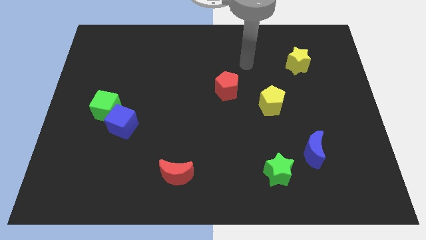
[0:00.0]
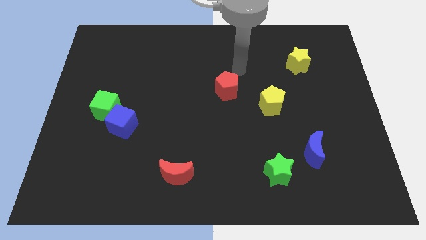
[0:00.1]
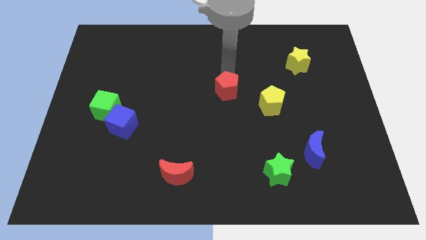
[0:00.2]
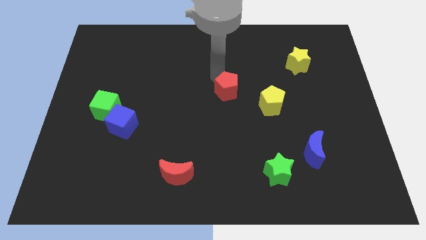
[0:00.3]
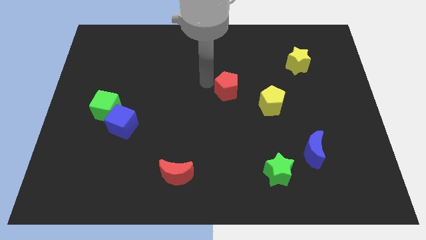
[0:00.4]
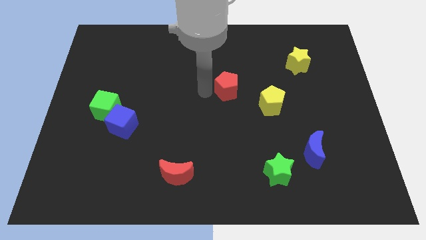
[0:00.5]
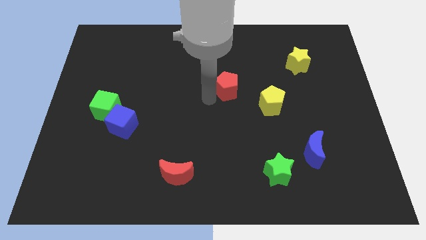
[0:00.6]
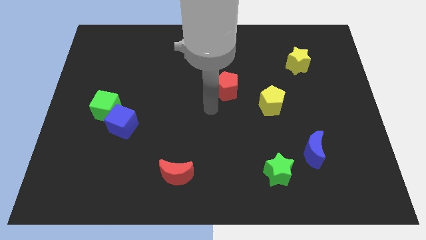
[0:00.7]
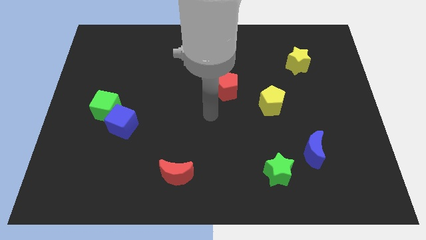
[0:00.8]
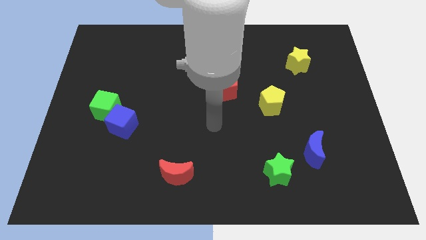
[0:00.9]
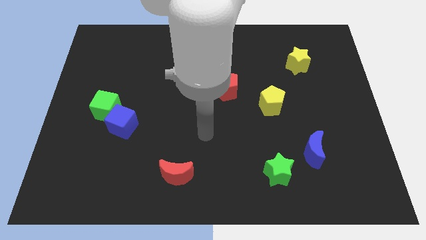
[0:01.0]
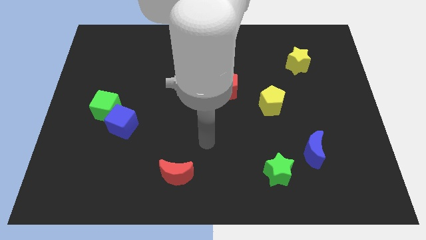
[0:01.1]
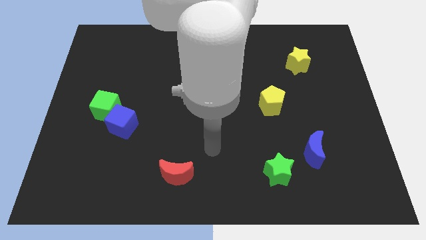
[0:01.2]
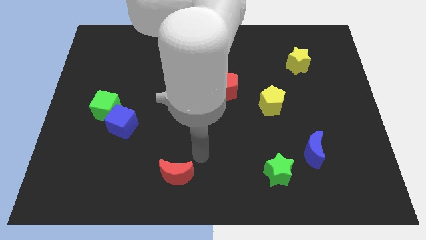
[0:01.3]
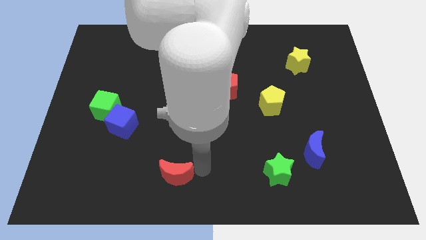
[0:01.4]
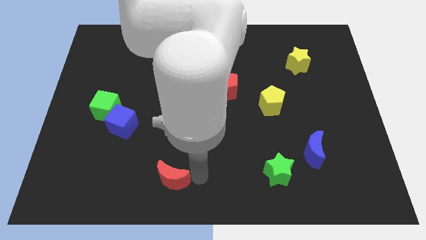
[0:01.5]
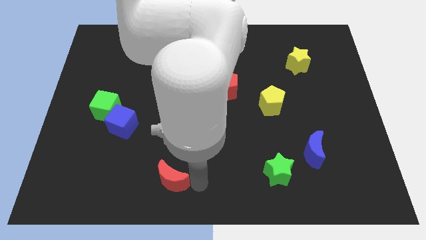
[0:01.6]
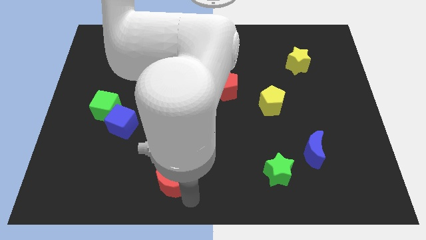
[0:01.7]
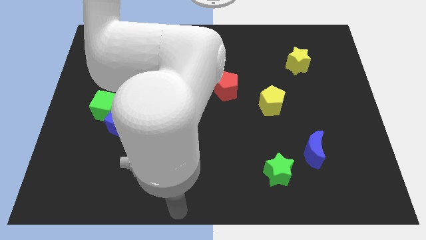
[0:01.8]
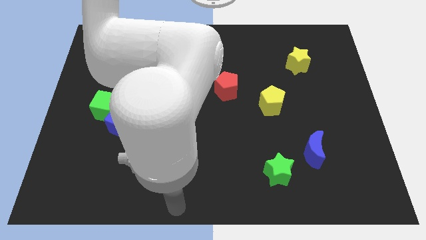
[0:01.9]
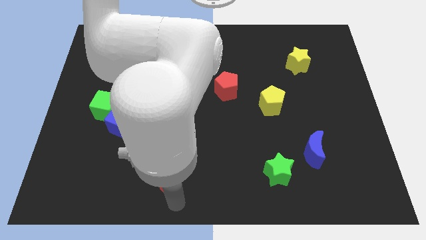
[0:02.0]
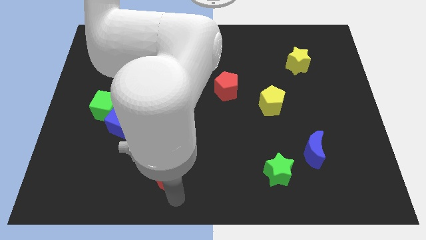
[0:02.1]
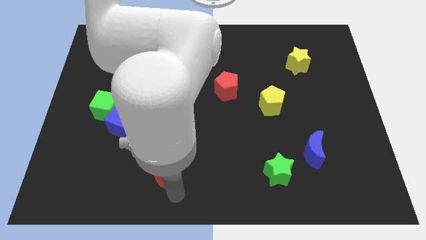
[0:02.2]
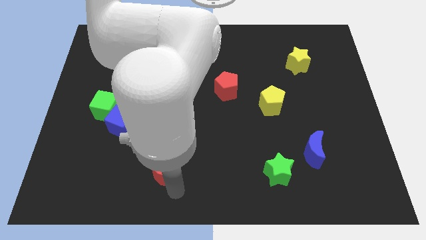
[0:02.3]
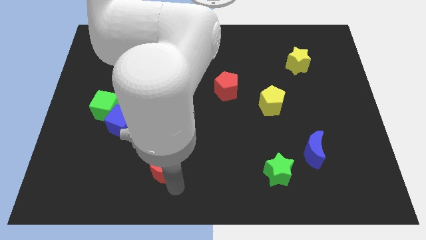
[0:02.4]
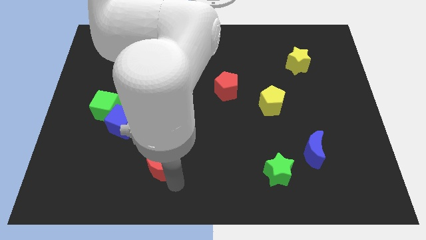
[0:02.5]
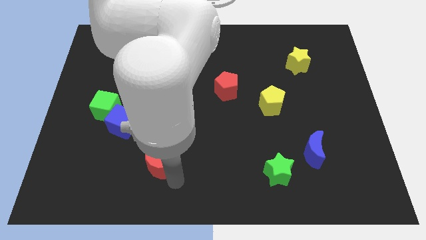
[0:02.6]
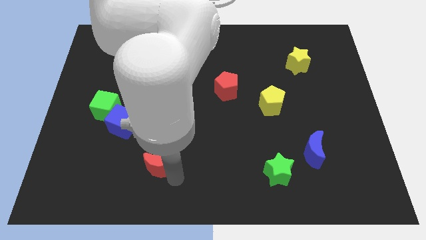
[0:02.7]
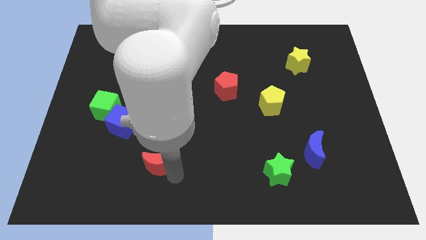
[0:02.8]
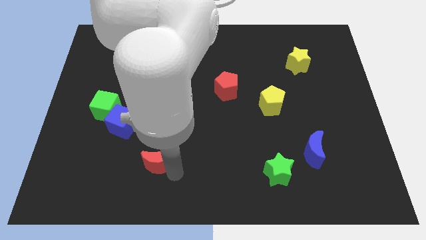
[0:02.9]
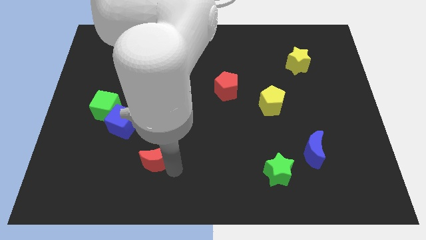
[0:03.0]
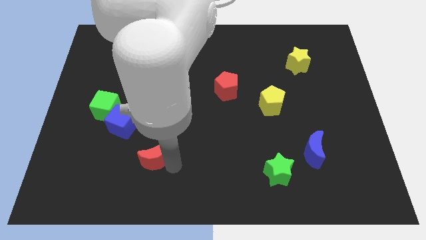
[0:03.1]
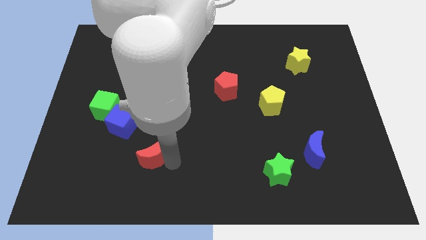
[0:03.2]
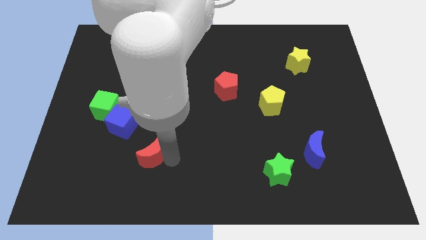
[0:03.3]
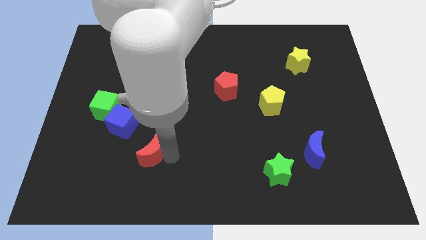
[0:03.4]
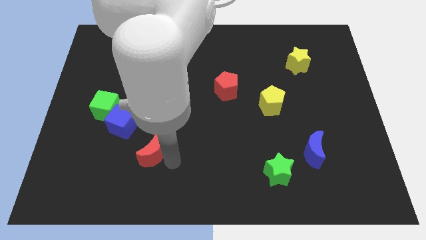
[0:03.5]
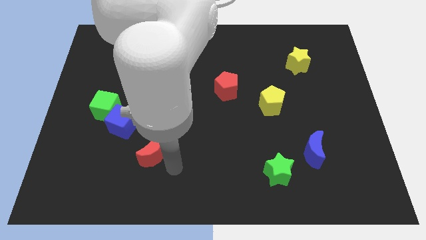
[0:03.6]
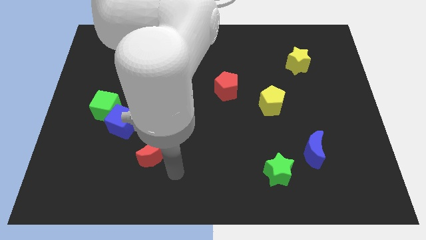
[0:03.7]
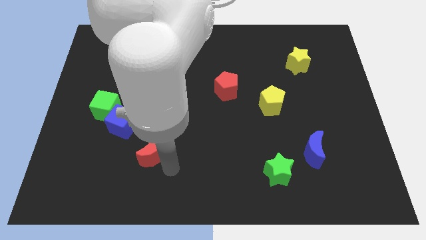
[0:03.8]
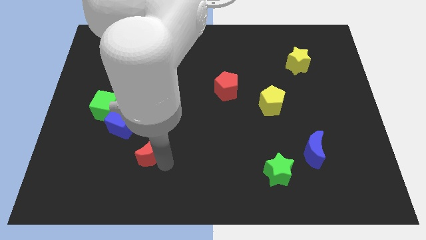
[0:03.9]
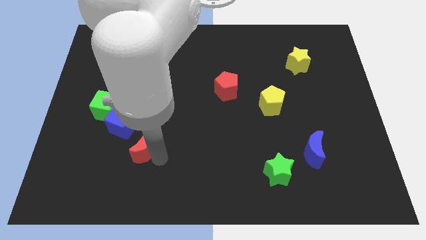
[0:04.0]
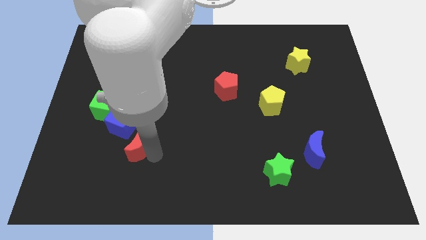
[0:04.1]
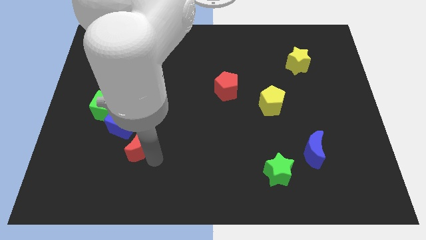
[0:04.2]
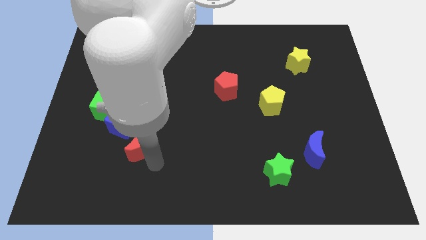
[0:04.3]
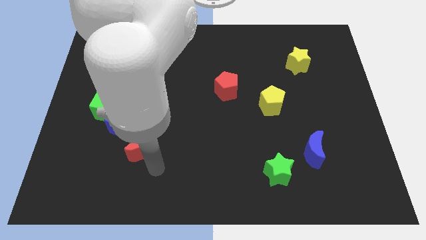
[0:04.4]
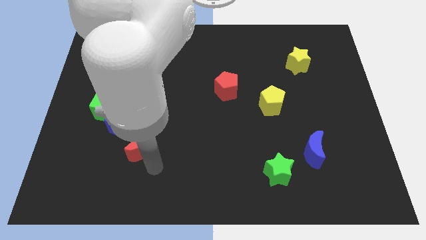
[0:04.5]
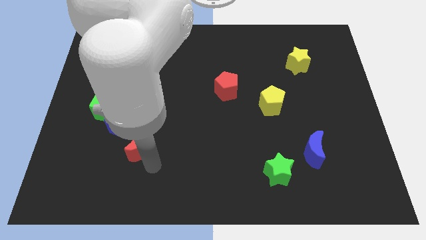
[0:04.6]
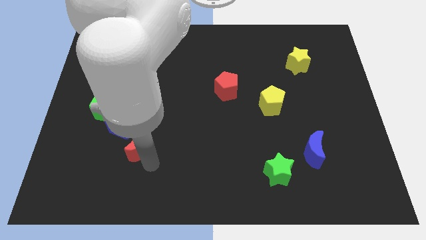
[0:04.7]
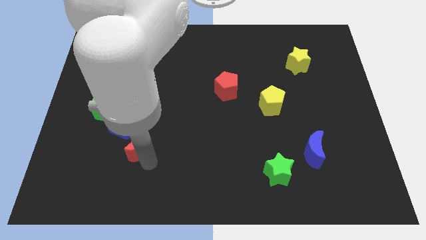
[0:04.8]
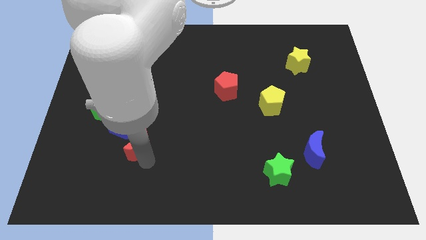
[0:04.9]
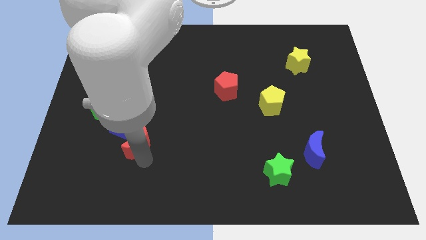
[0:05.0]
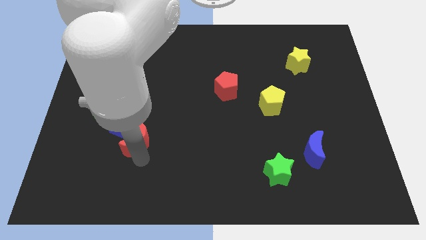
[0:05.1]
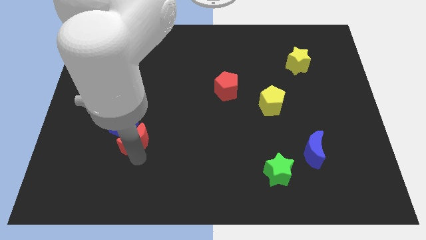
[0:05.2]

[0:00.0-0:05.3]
put the red moon towards the blue cube

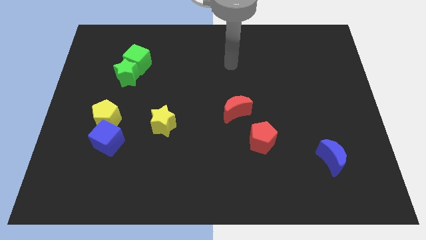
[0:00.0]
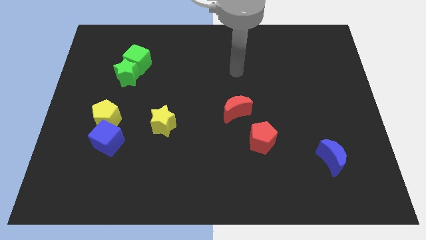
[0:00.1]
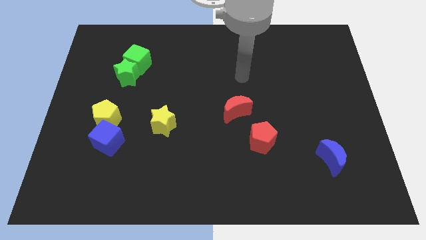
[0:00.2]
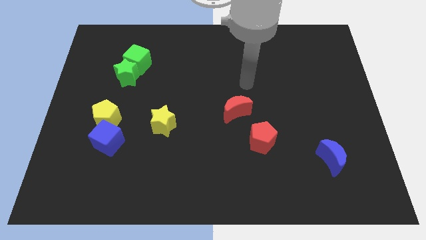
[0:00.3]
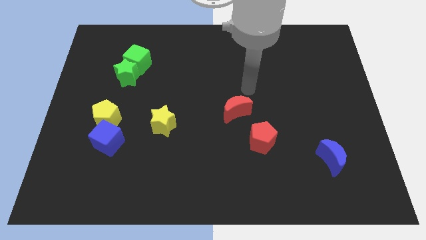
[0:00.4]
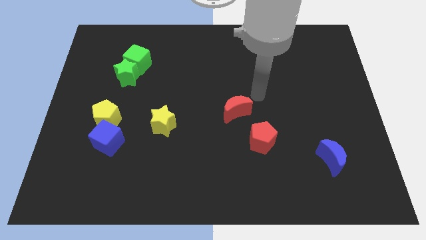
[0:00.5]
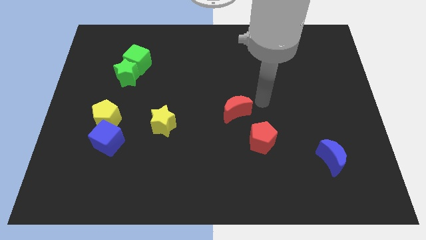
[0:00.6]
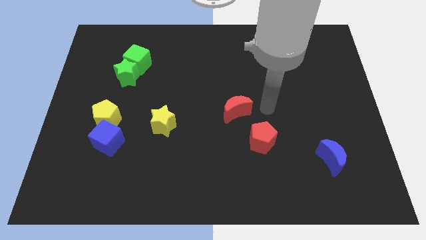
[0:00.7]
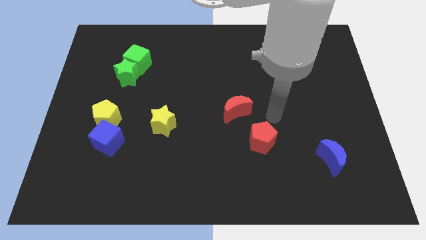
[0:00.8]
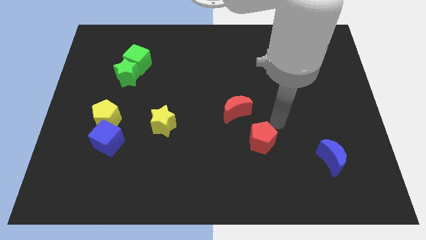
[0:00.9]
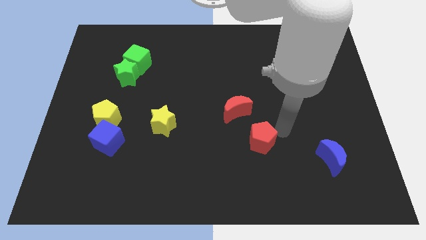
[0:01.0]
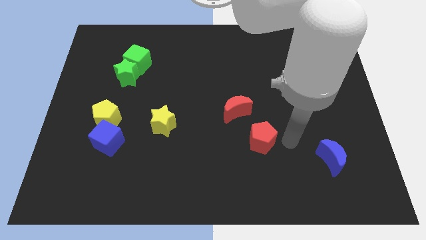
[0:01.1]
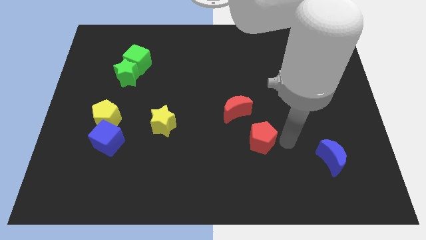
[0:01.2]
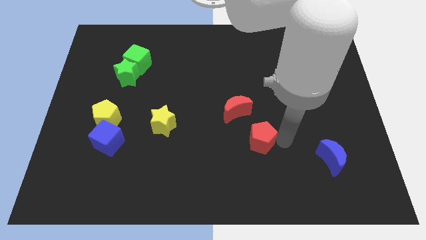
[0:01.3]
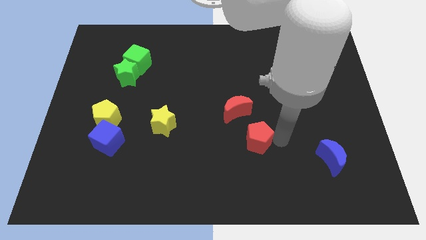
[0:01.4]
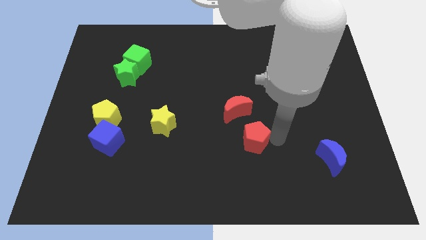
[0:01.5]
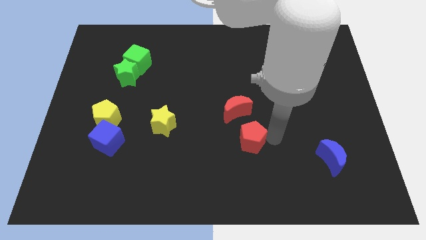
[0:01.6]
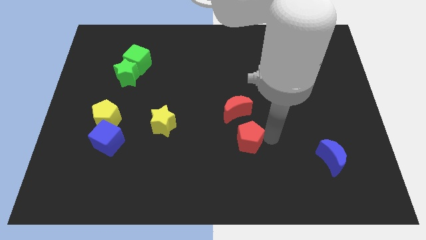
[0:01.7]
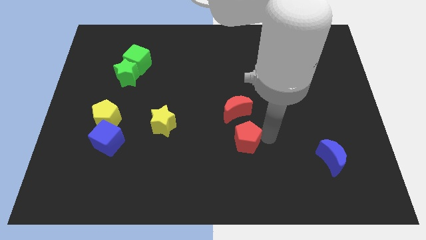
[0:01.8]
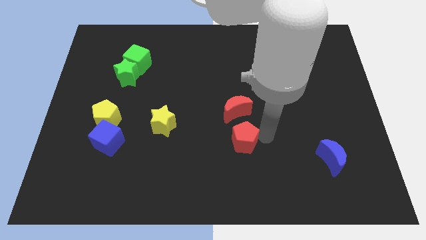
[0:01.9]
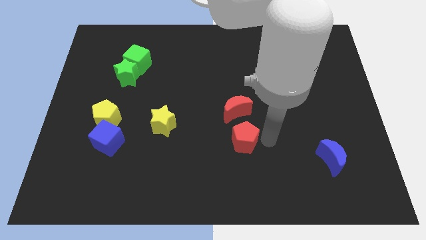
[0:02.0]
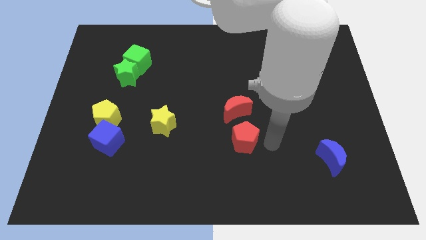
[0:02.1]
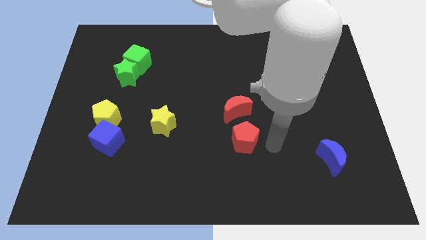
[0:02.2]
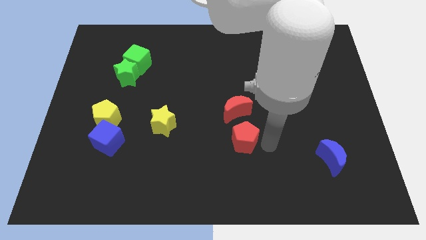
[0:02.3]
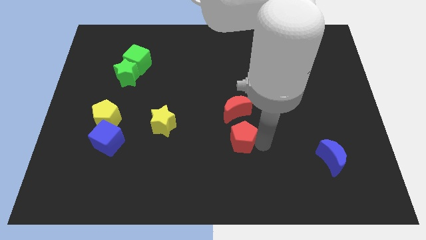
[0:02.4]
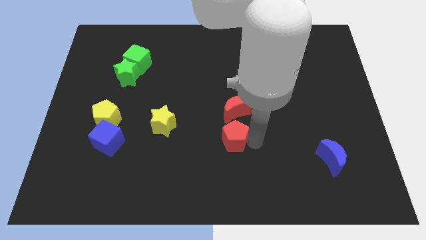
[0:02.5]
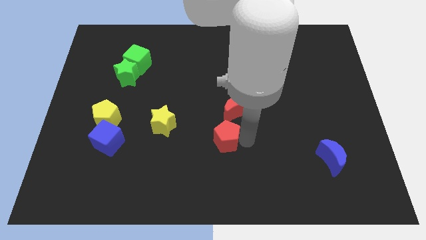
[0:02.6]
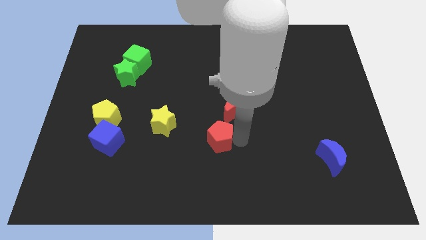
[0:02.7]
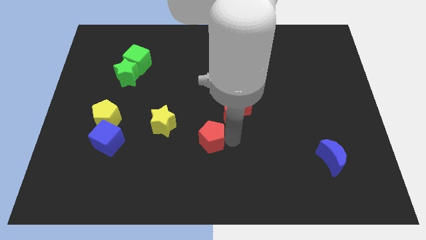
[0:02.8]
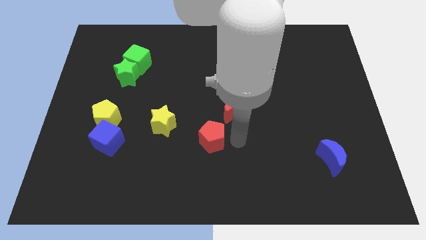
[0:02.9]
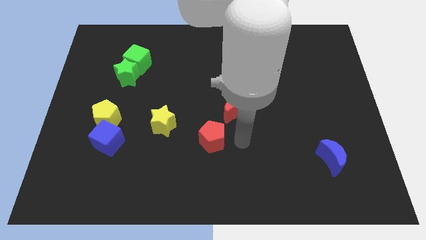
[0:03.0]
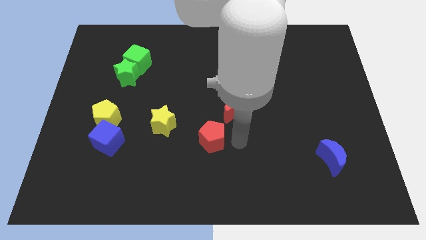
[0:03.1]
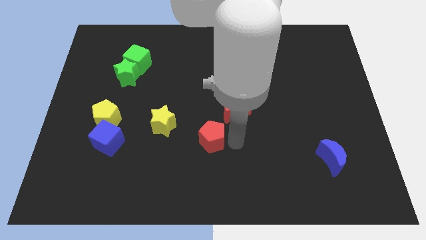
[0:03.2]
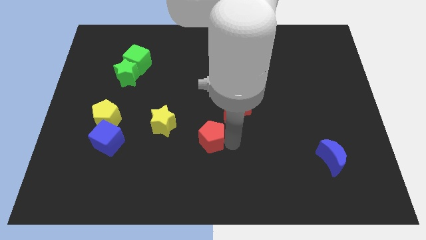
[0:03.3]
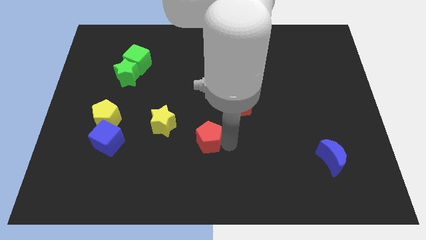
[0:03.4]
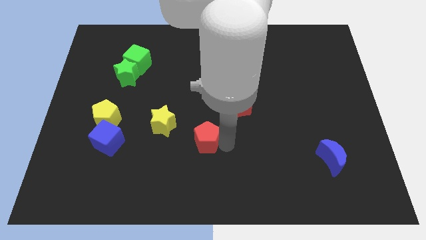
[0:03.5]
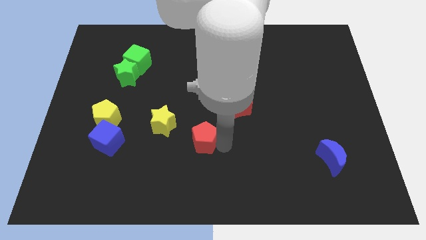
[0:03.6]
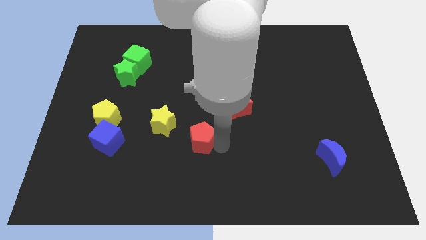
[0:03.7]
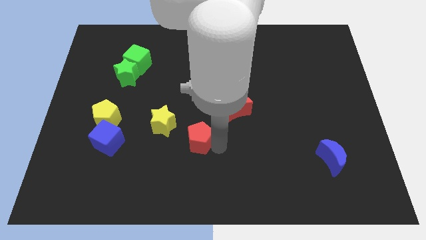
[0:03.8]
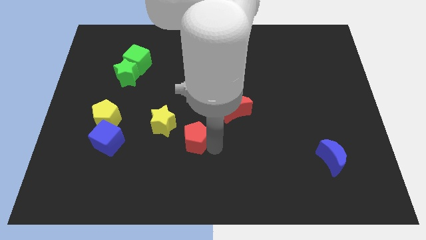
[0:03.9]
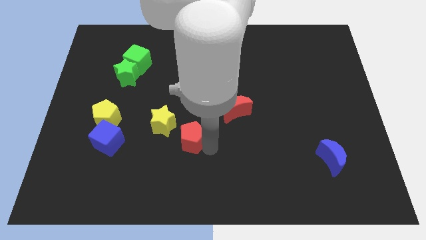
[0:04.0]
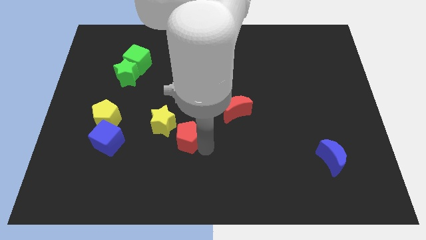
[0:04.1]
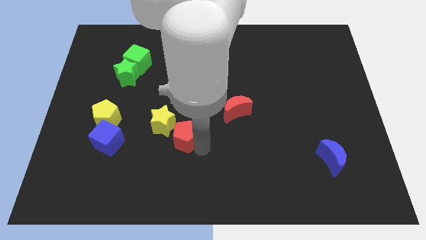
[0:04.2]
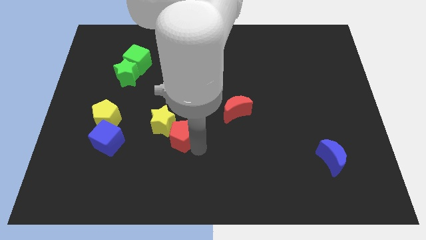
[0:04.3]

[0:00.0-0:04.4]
push the red pentagon to the yellow star
